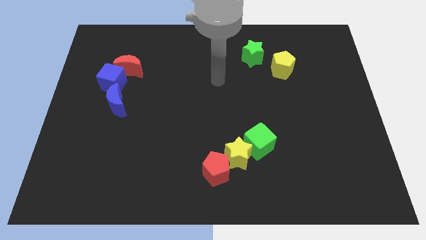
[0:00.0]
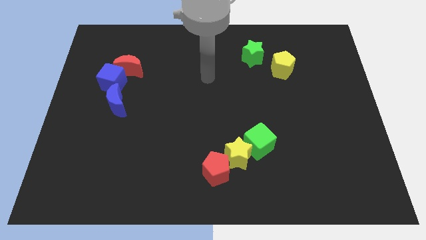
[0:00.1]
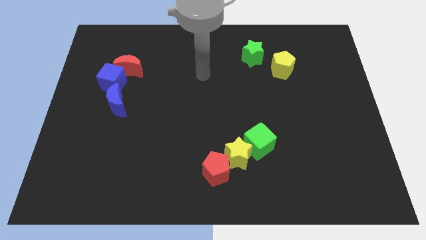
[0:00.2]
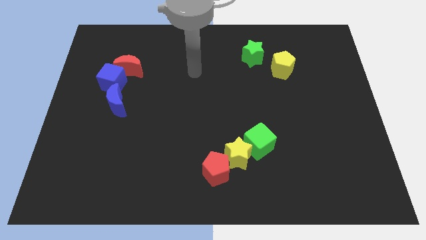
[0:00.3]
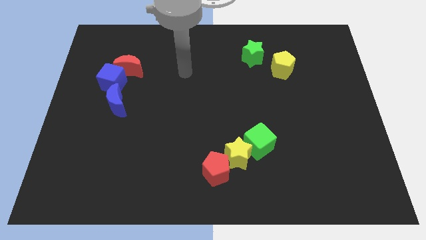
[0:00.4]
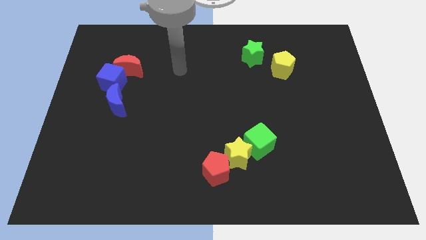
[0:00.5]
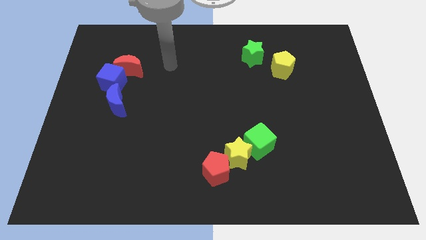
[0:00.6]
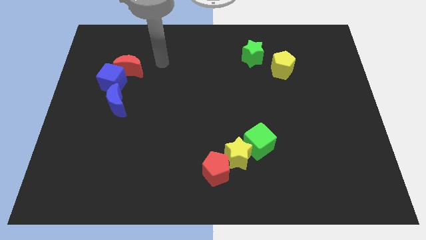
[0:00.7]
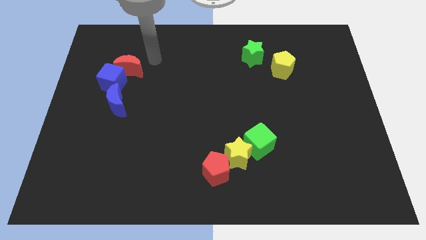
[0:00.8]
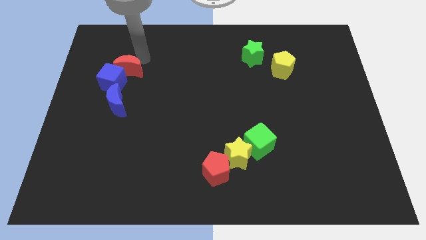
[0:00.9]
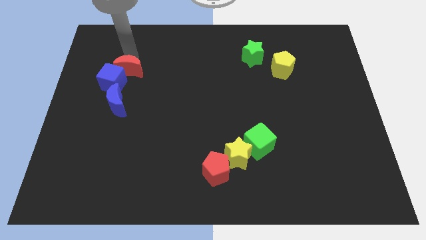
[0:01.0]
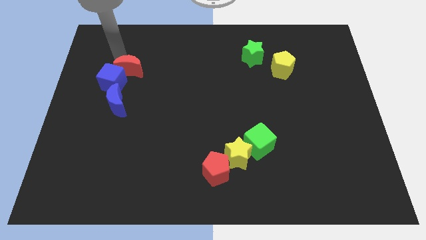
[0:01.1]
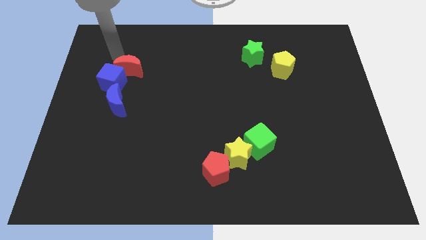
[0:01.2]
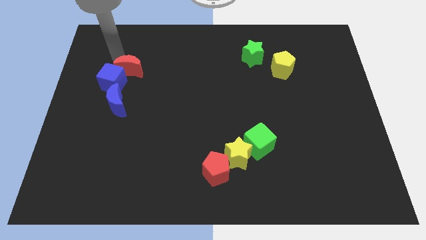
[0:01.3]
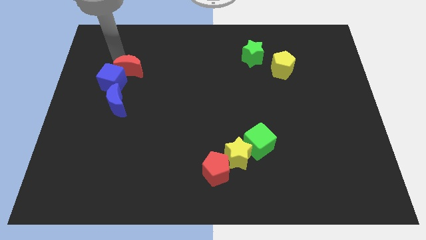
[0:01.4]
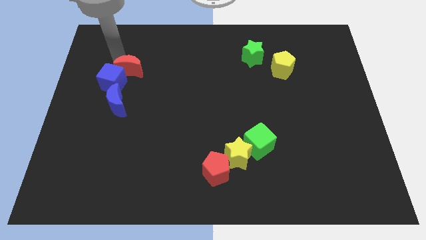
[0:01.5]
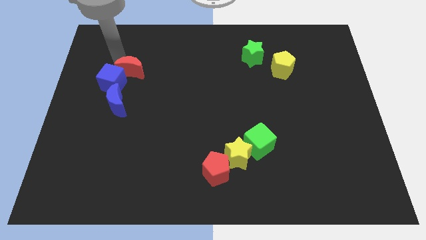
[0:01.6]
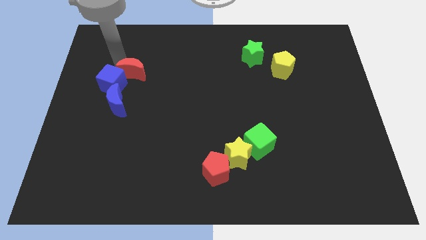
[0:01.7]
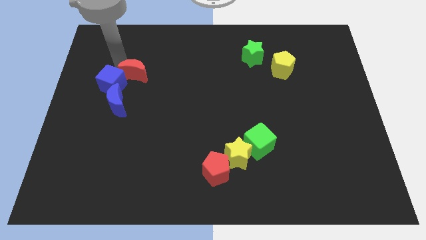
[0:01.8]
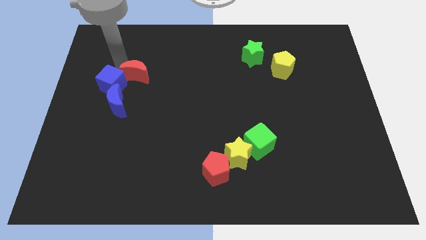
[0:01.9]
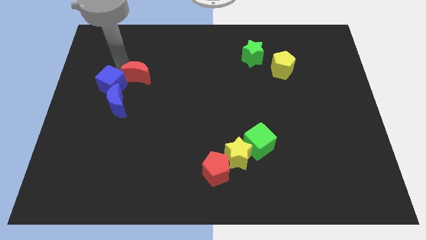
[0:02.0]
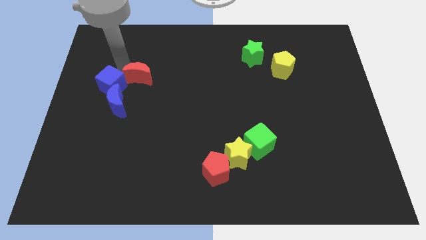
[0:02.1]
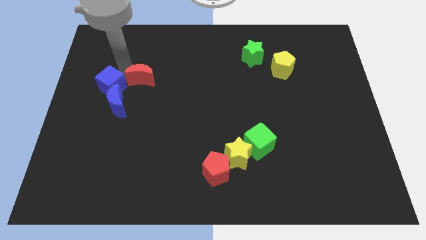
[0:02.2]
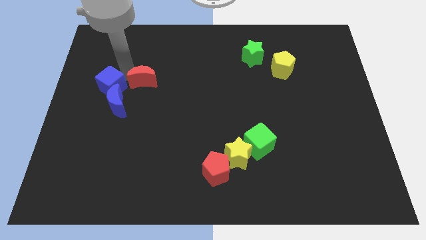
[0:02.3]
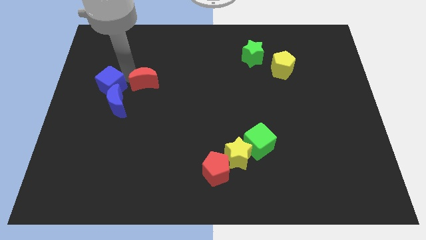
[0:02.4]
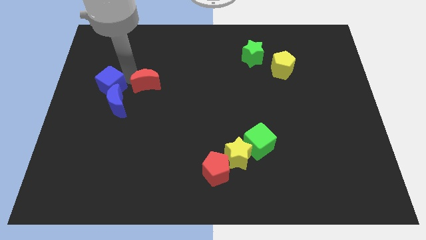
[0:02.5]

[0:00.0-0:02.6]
slightly slide the red moon downwards and right

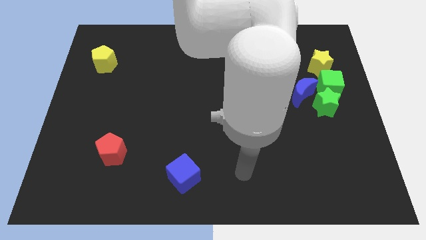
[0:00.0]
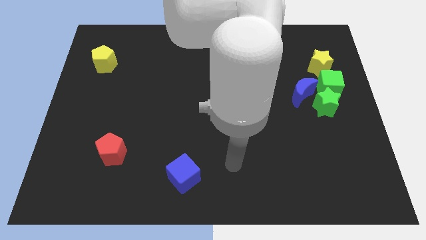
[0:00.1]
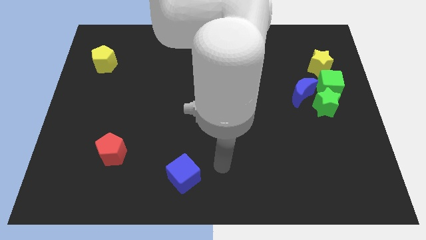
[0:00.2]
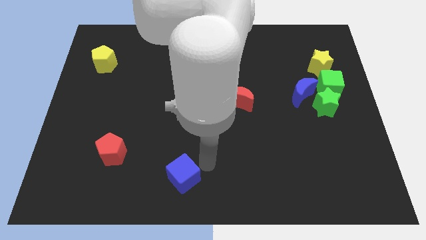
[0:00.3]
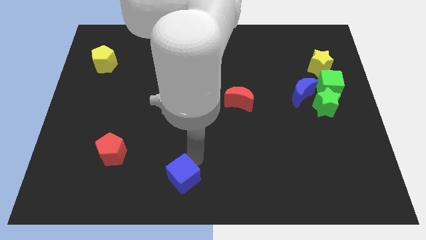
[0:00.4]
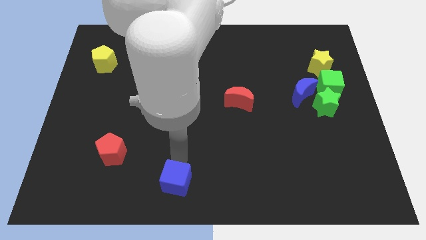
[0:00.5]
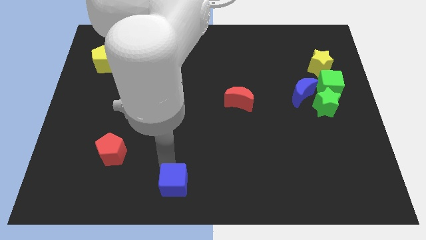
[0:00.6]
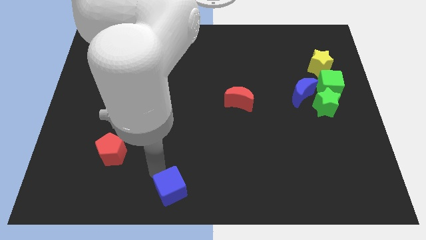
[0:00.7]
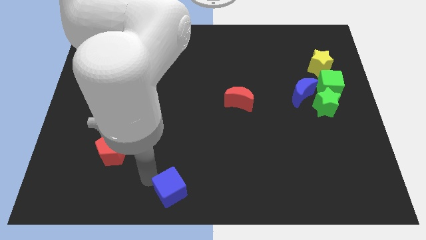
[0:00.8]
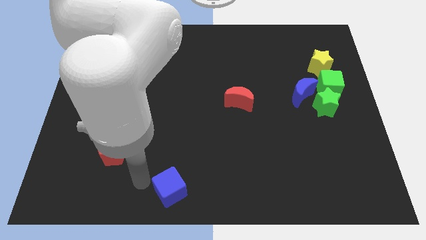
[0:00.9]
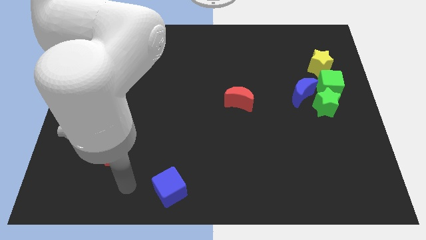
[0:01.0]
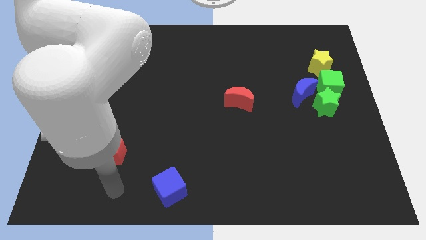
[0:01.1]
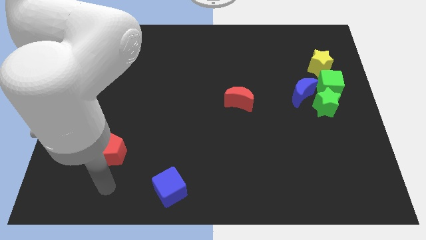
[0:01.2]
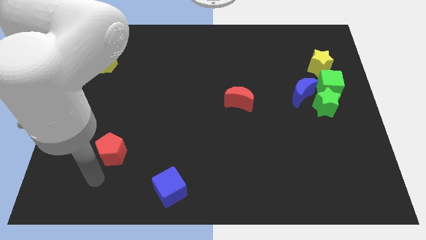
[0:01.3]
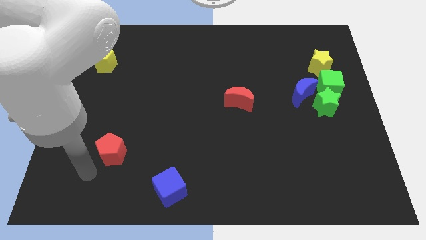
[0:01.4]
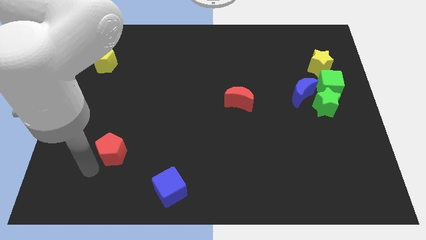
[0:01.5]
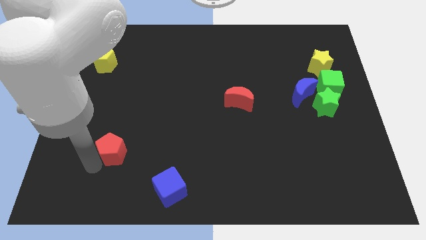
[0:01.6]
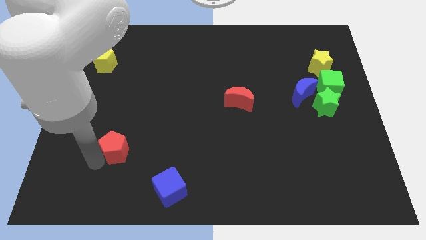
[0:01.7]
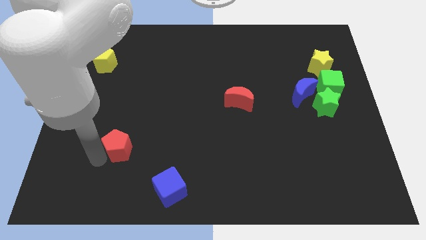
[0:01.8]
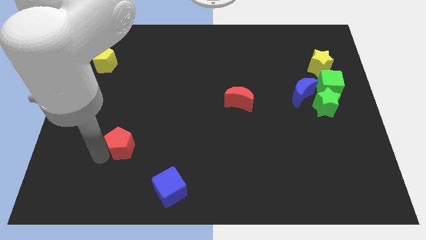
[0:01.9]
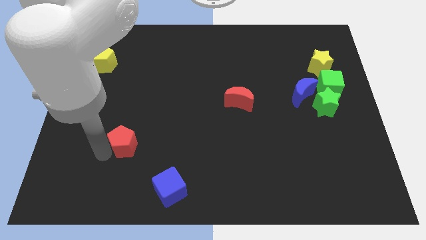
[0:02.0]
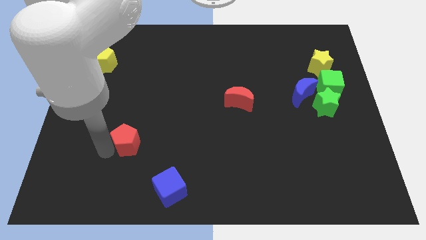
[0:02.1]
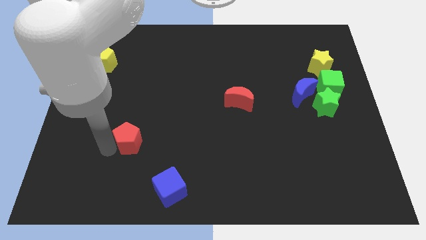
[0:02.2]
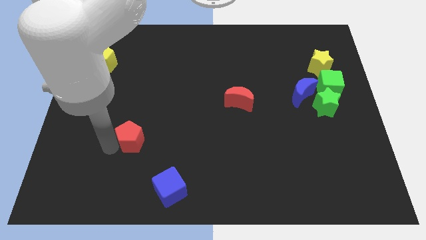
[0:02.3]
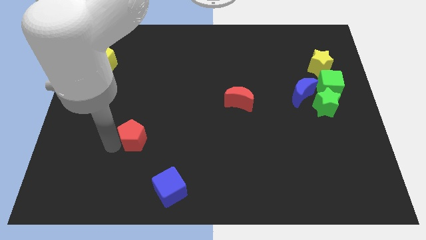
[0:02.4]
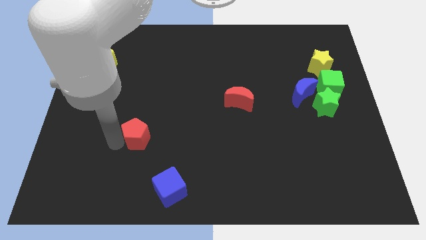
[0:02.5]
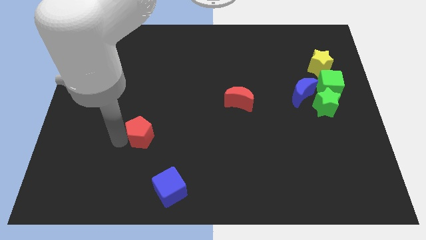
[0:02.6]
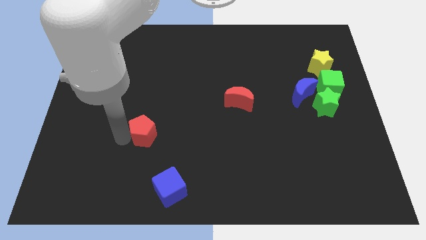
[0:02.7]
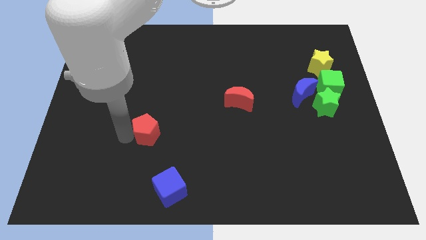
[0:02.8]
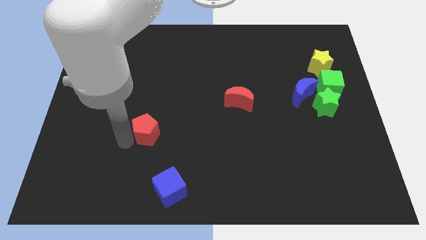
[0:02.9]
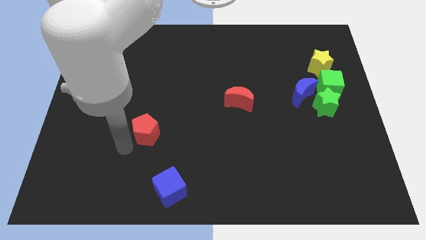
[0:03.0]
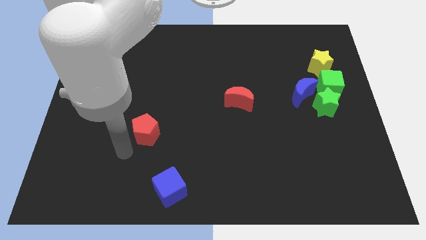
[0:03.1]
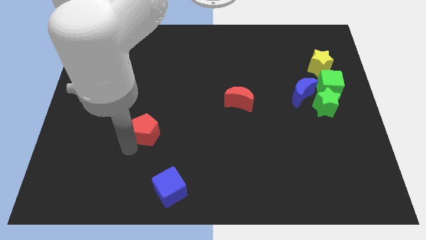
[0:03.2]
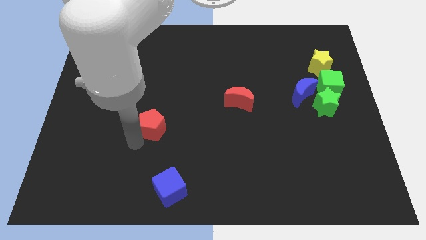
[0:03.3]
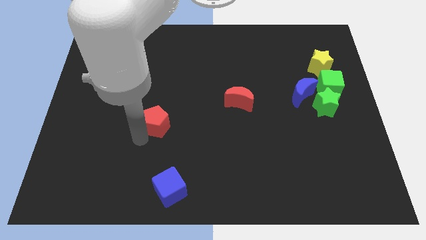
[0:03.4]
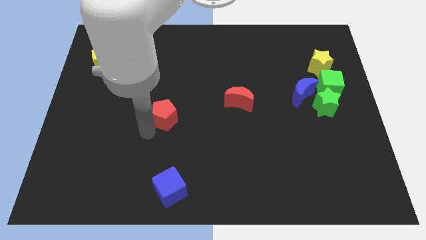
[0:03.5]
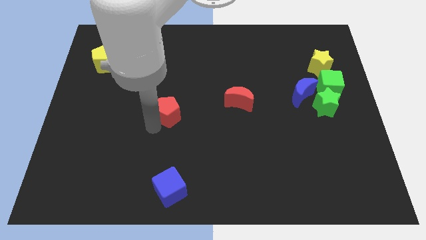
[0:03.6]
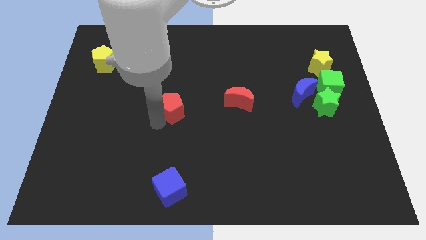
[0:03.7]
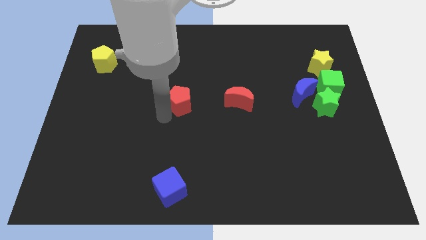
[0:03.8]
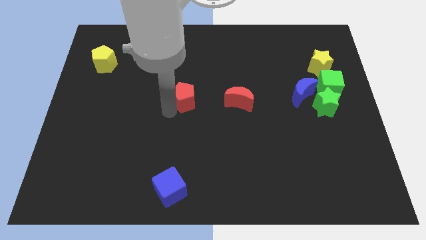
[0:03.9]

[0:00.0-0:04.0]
slide the red pentagon upwards and to the right diagonally

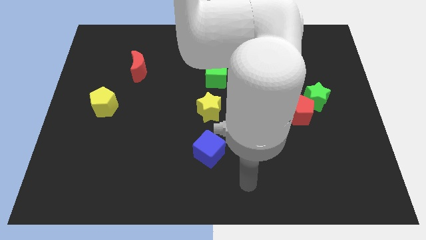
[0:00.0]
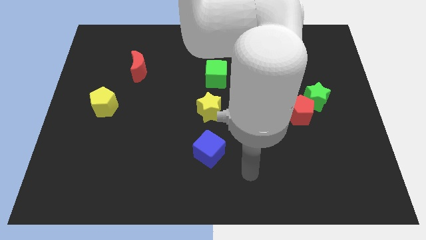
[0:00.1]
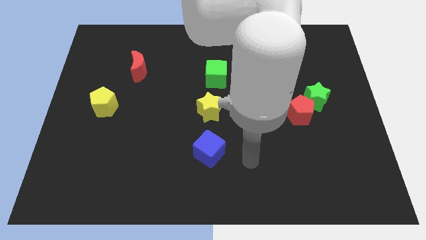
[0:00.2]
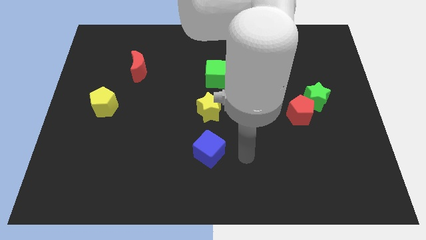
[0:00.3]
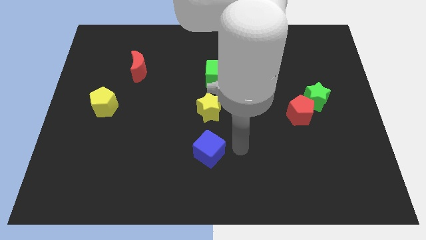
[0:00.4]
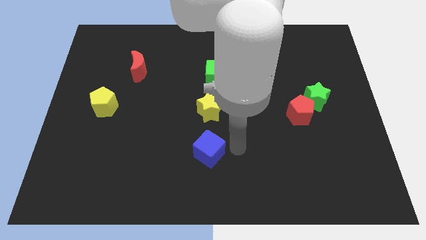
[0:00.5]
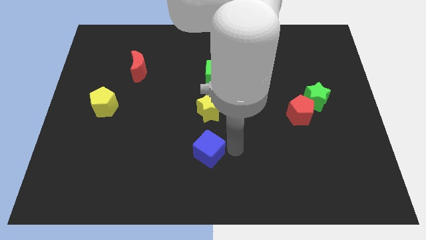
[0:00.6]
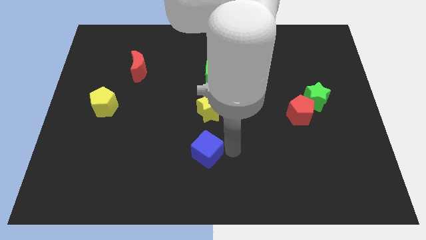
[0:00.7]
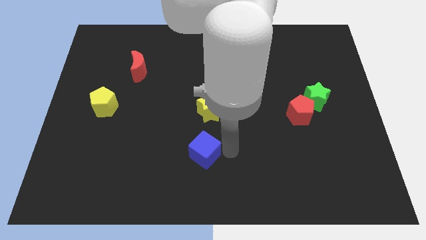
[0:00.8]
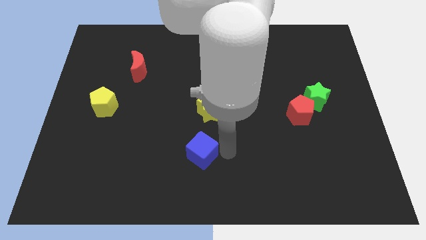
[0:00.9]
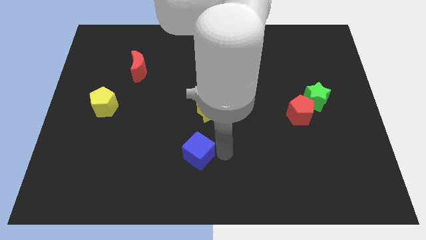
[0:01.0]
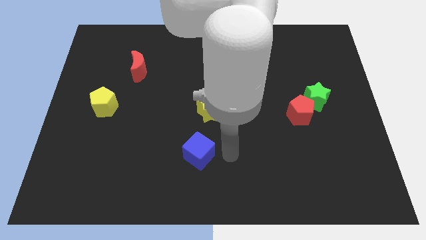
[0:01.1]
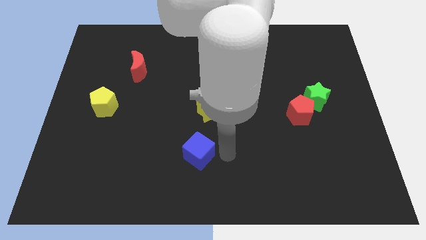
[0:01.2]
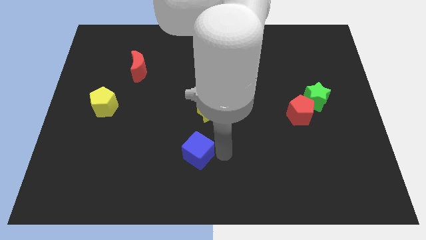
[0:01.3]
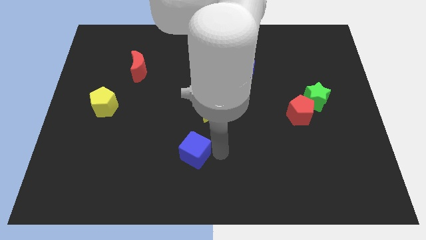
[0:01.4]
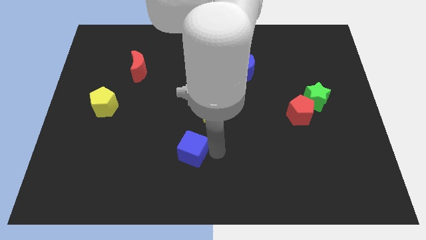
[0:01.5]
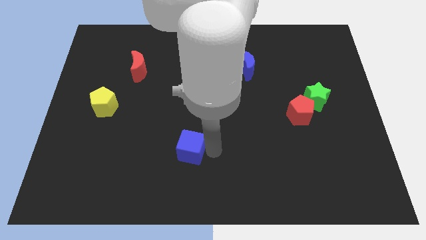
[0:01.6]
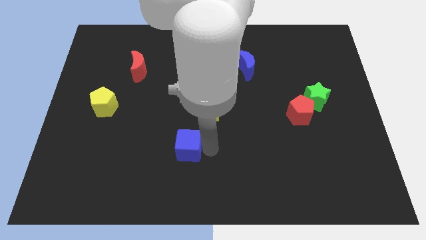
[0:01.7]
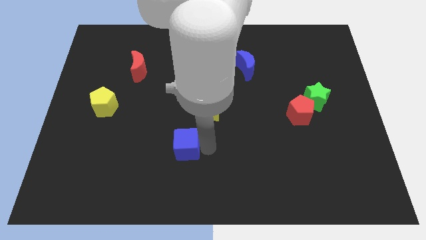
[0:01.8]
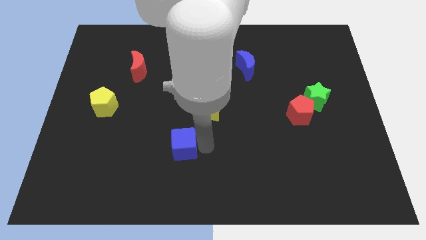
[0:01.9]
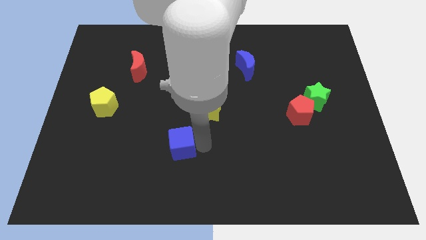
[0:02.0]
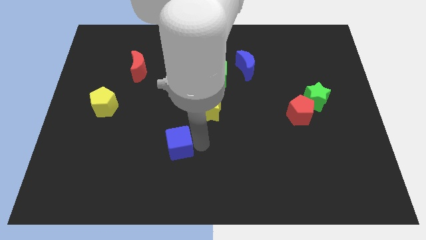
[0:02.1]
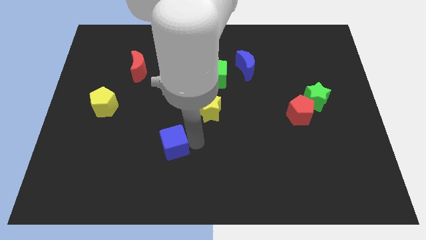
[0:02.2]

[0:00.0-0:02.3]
move the blue cube to the left a little
